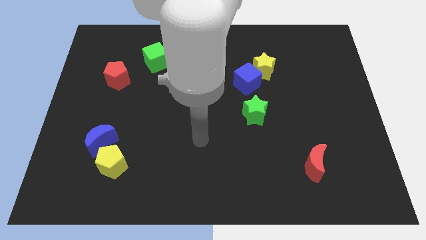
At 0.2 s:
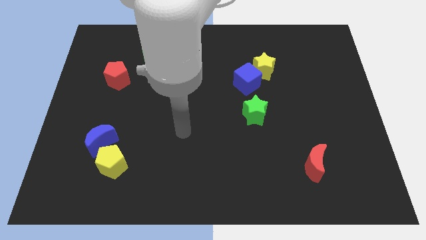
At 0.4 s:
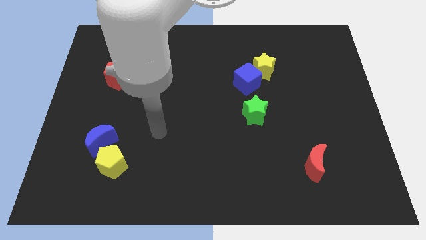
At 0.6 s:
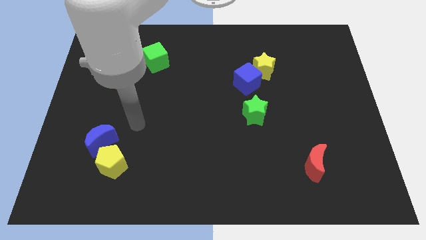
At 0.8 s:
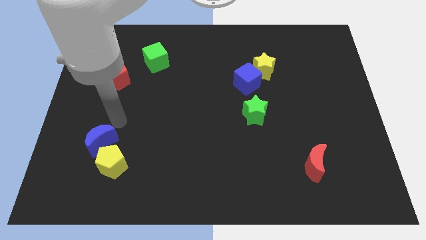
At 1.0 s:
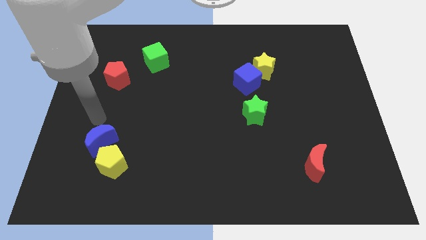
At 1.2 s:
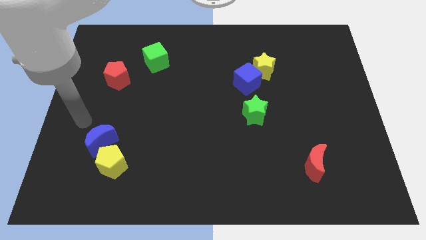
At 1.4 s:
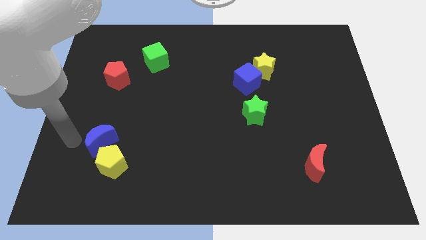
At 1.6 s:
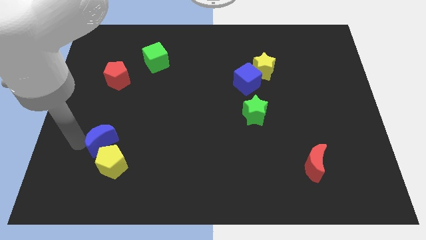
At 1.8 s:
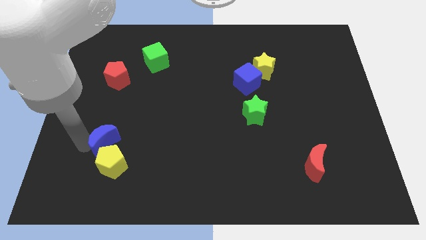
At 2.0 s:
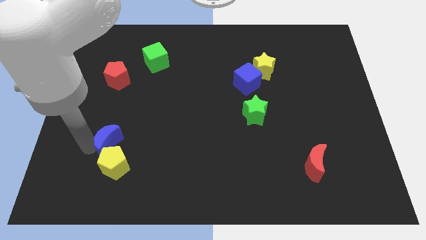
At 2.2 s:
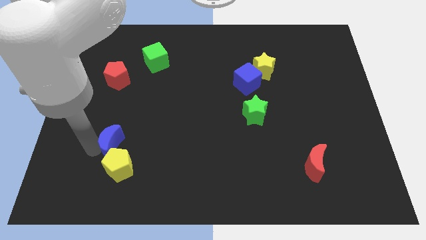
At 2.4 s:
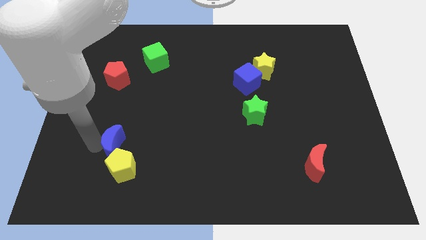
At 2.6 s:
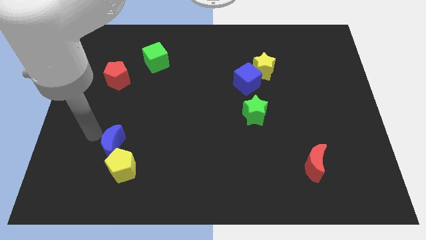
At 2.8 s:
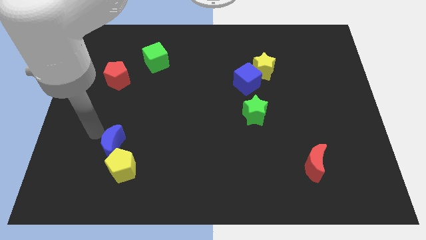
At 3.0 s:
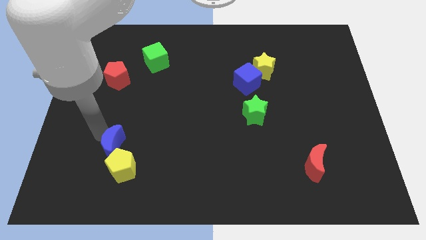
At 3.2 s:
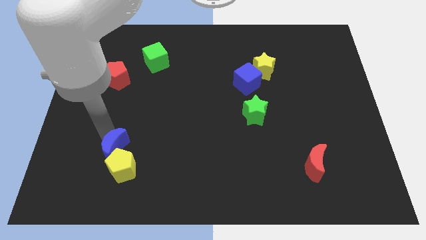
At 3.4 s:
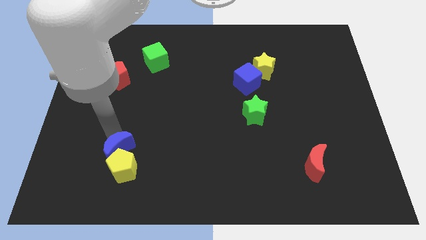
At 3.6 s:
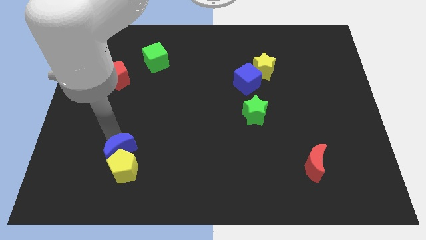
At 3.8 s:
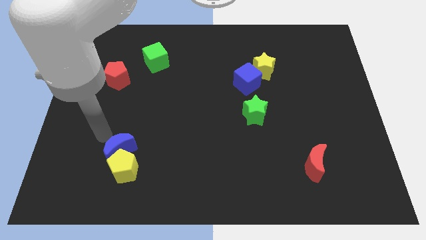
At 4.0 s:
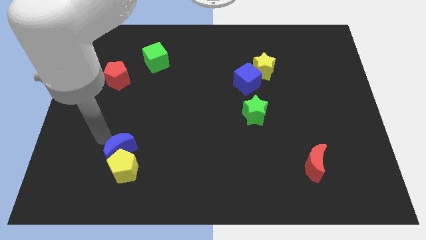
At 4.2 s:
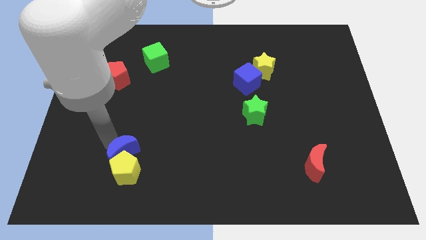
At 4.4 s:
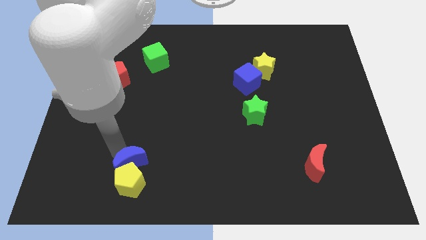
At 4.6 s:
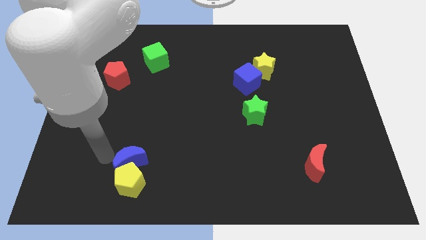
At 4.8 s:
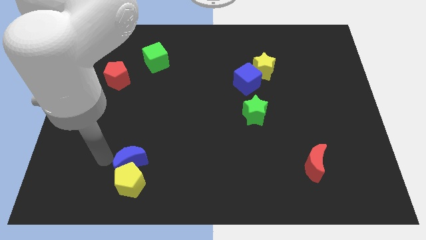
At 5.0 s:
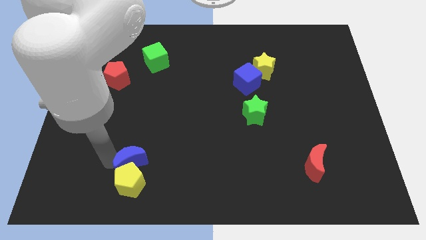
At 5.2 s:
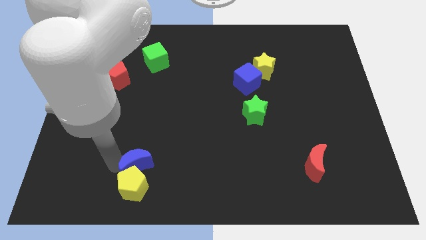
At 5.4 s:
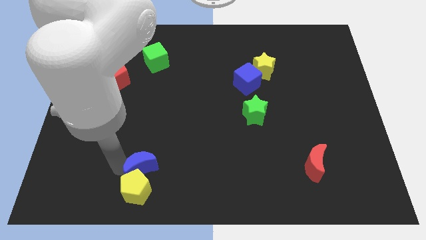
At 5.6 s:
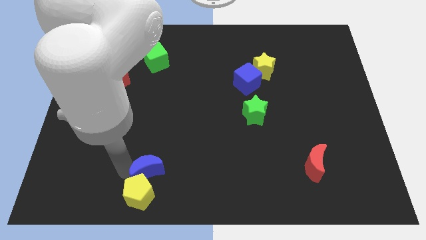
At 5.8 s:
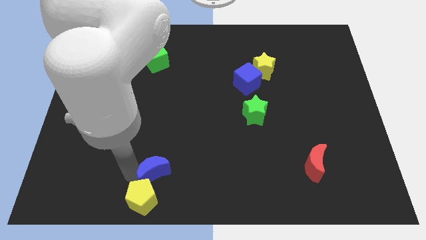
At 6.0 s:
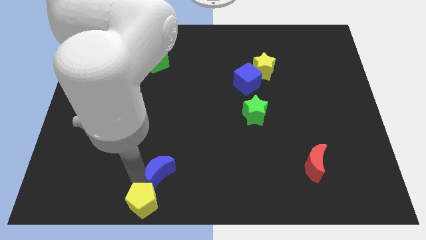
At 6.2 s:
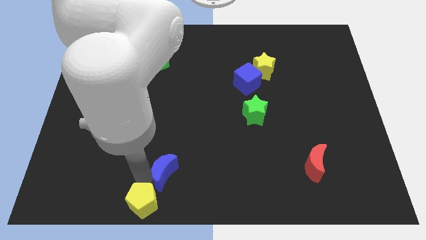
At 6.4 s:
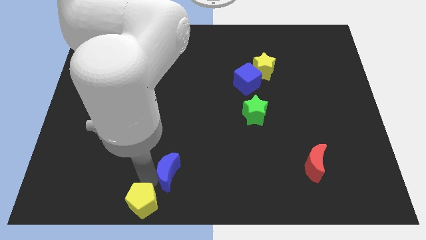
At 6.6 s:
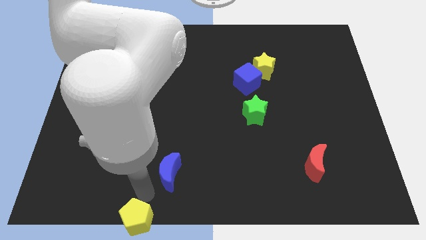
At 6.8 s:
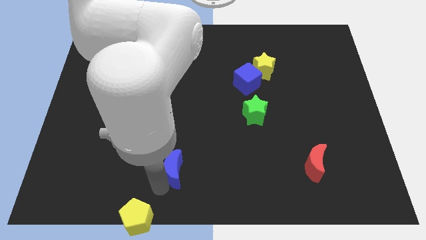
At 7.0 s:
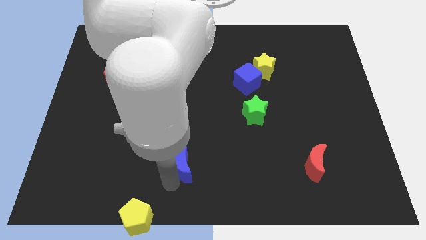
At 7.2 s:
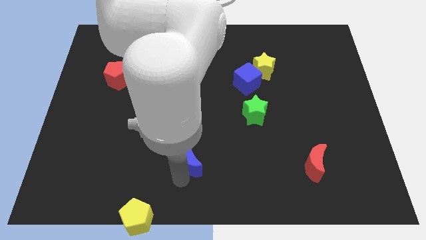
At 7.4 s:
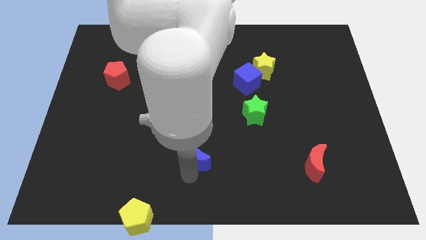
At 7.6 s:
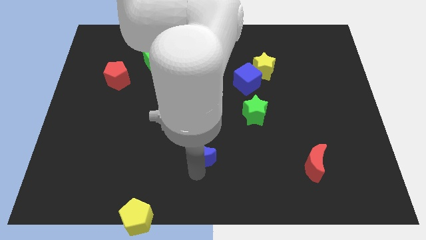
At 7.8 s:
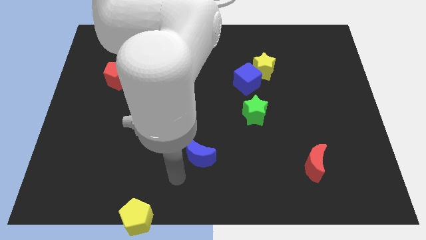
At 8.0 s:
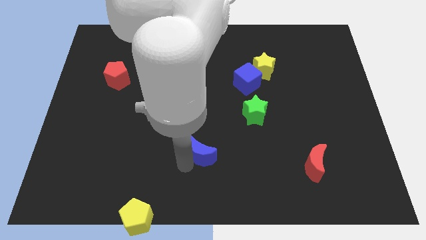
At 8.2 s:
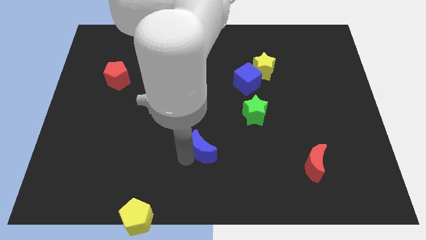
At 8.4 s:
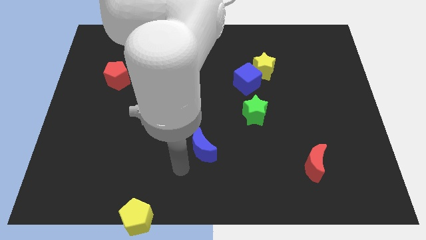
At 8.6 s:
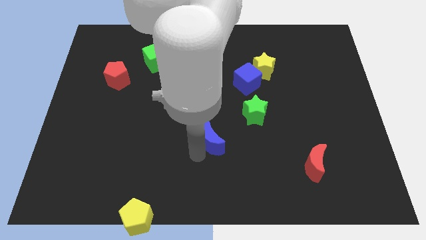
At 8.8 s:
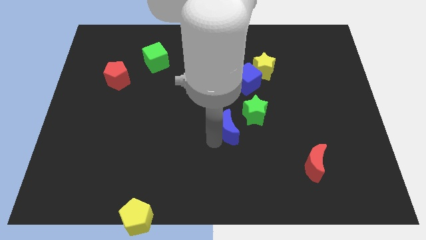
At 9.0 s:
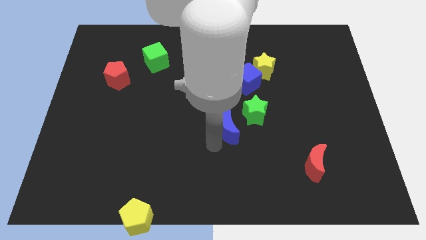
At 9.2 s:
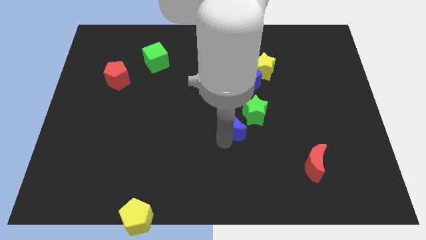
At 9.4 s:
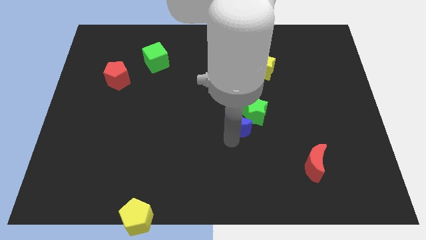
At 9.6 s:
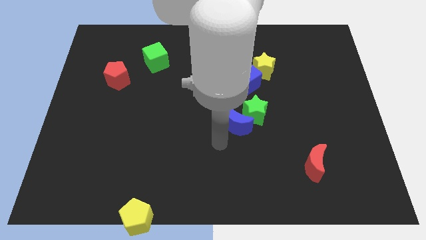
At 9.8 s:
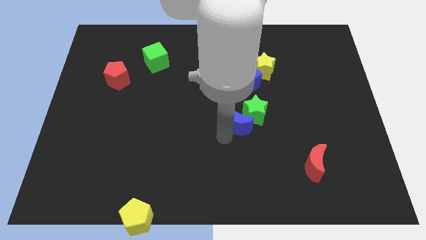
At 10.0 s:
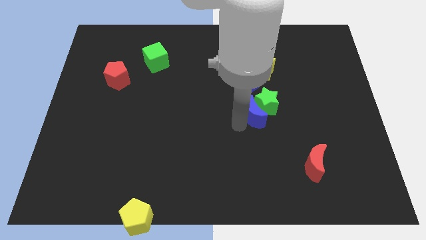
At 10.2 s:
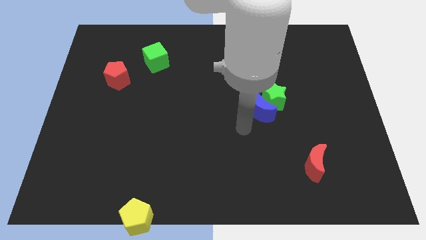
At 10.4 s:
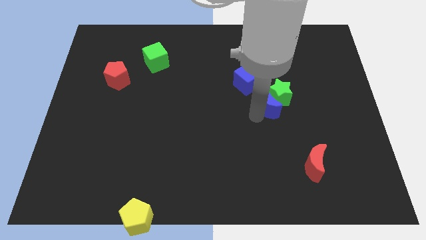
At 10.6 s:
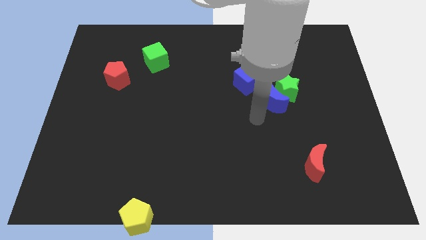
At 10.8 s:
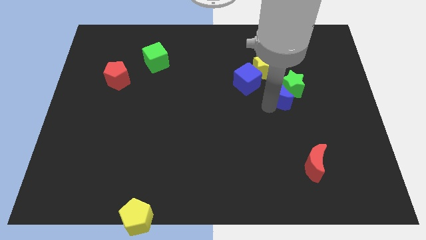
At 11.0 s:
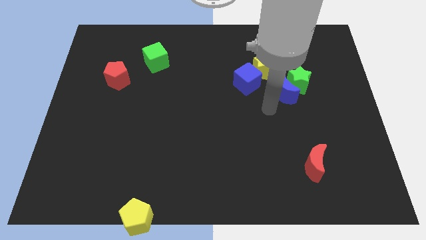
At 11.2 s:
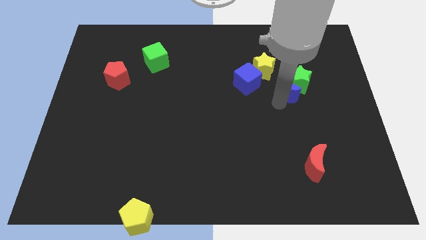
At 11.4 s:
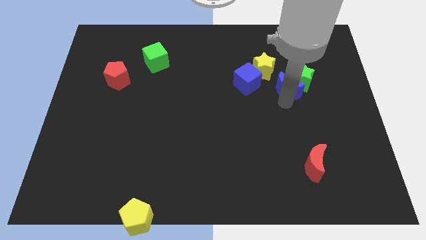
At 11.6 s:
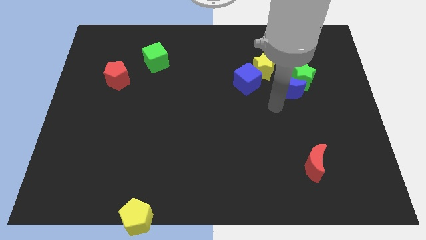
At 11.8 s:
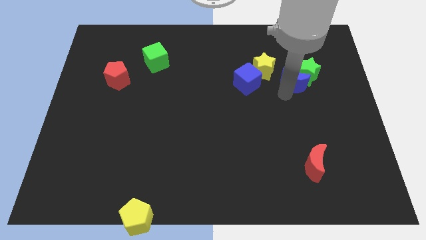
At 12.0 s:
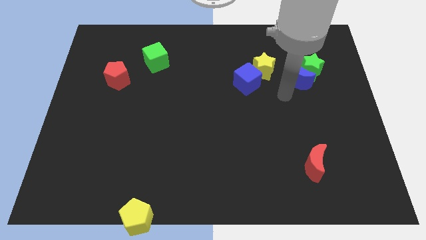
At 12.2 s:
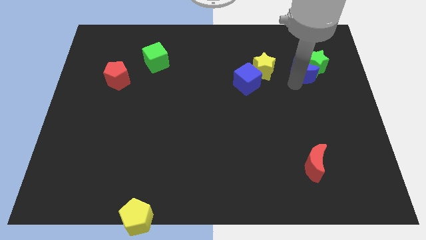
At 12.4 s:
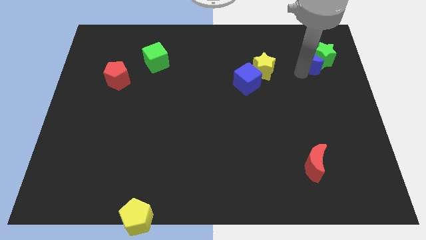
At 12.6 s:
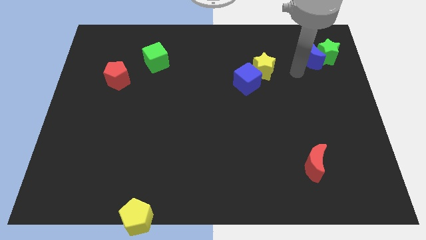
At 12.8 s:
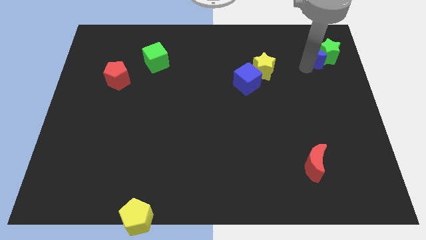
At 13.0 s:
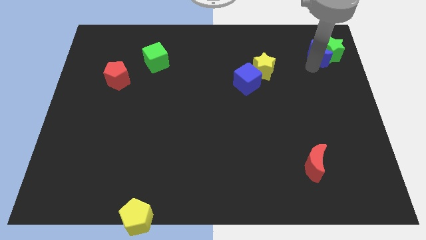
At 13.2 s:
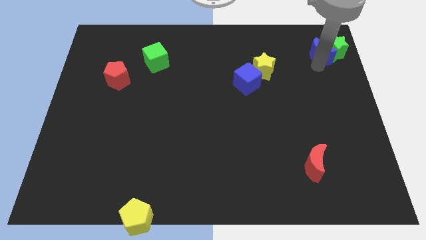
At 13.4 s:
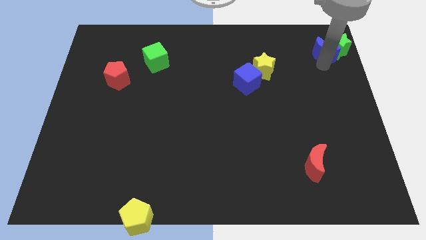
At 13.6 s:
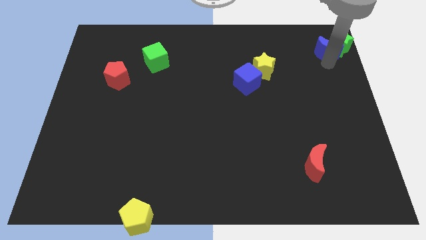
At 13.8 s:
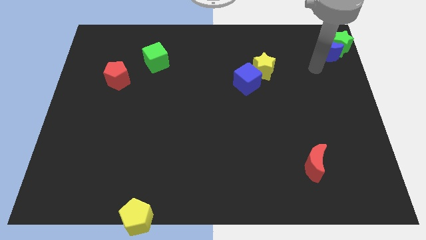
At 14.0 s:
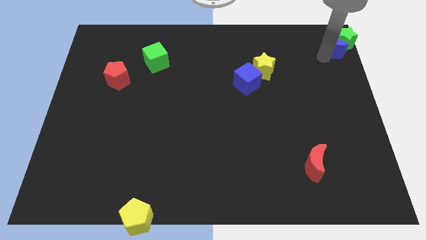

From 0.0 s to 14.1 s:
move the blue moon to the upper right corner
